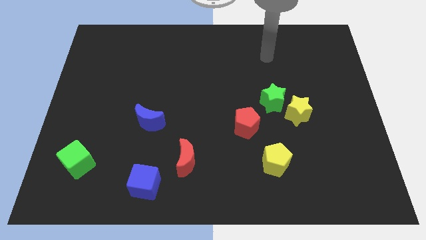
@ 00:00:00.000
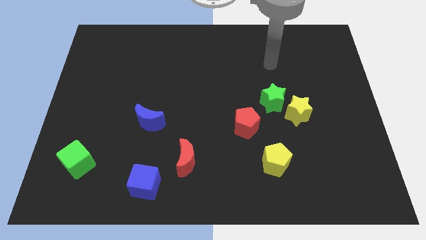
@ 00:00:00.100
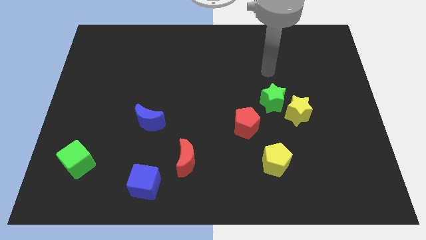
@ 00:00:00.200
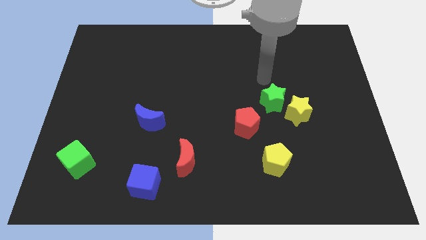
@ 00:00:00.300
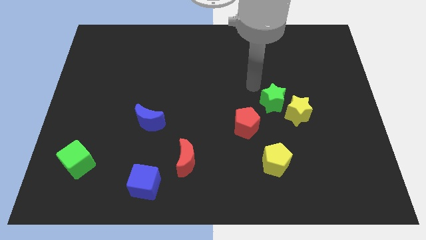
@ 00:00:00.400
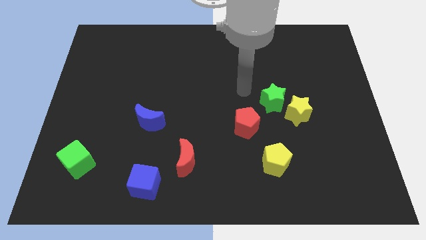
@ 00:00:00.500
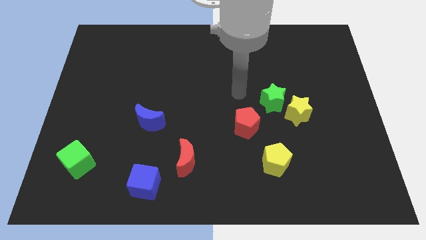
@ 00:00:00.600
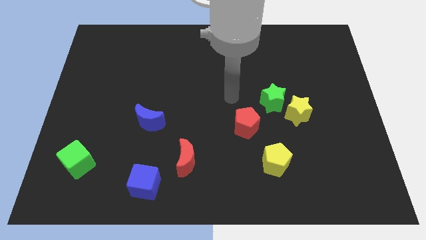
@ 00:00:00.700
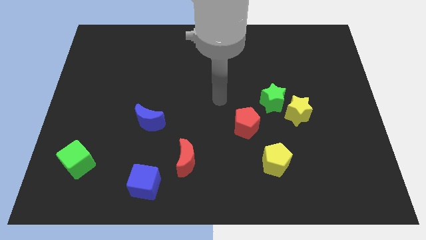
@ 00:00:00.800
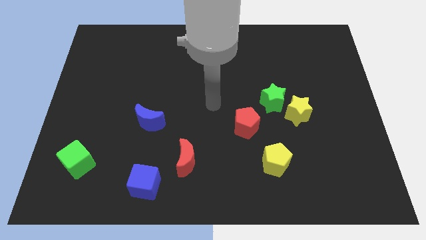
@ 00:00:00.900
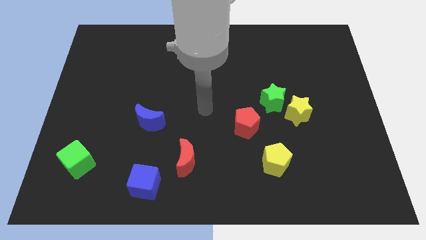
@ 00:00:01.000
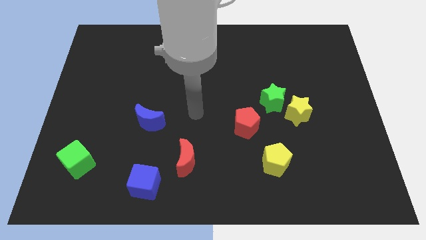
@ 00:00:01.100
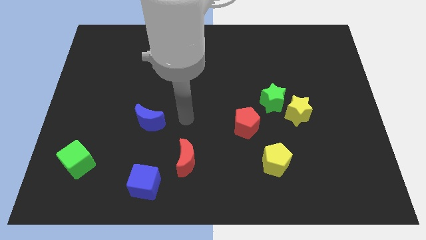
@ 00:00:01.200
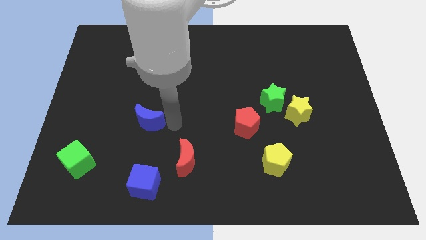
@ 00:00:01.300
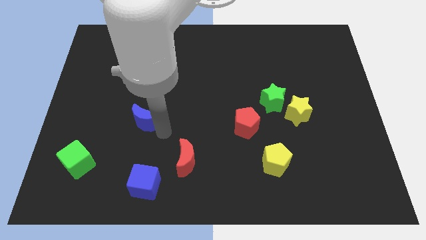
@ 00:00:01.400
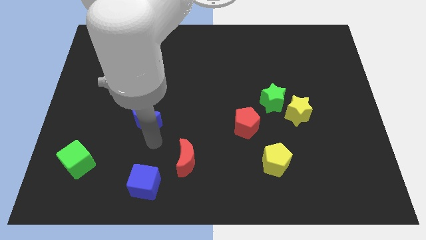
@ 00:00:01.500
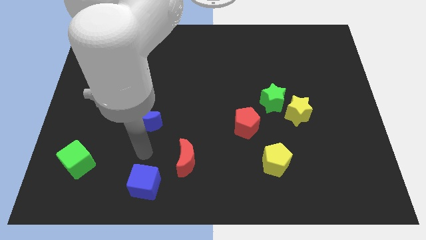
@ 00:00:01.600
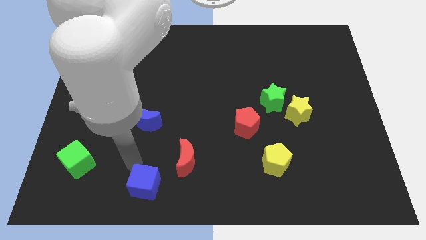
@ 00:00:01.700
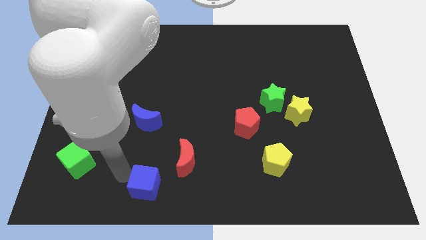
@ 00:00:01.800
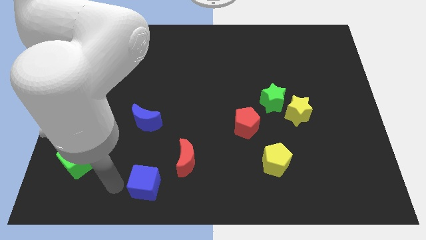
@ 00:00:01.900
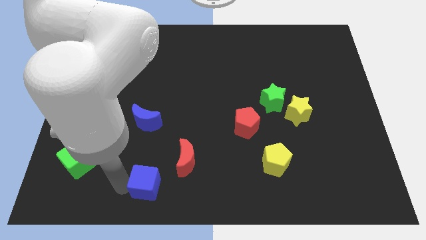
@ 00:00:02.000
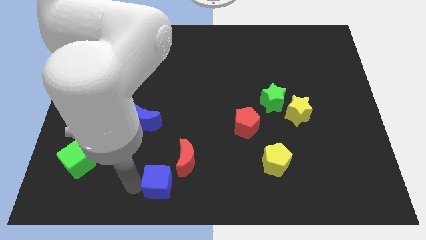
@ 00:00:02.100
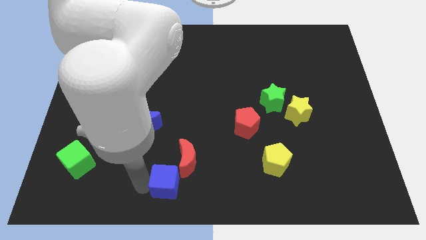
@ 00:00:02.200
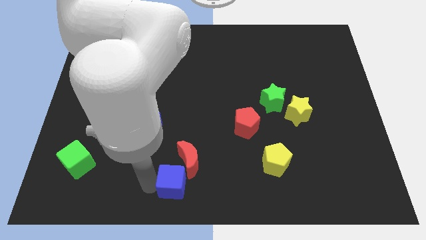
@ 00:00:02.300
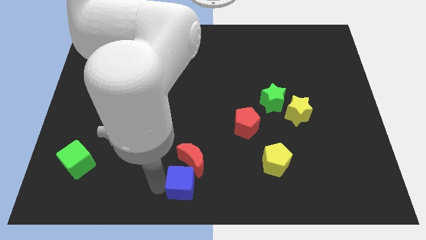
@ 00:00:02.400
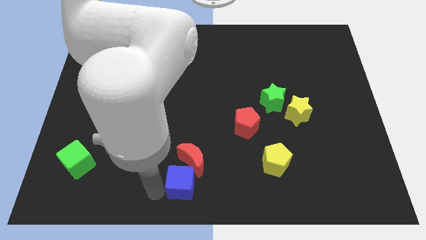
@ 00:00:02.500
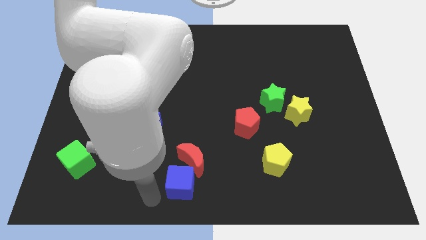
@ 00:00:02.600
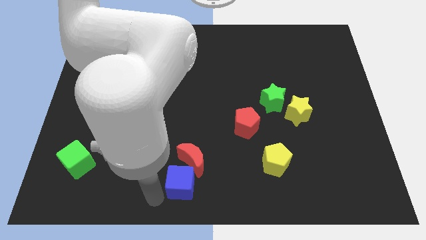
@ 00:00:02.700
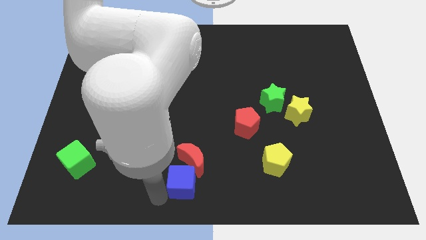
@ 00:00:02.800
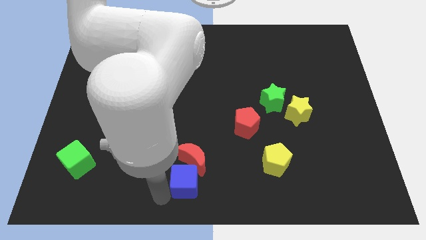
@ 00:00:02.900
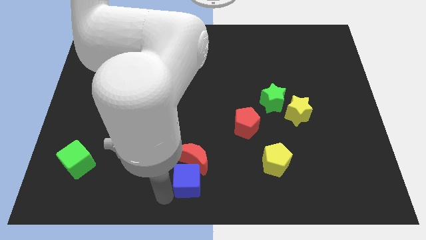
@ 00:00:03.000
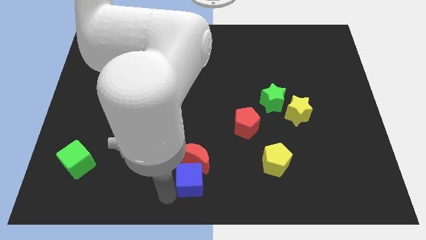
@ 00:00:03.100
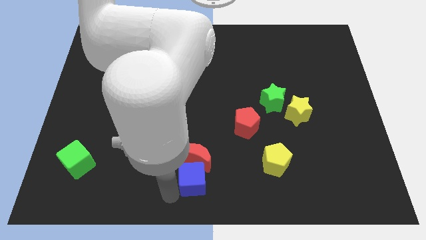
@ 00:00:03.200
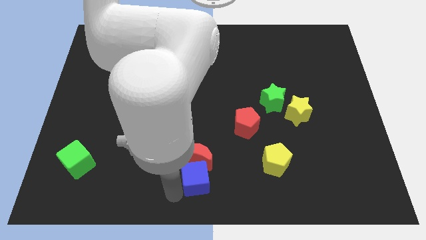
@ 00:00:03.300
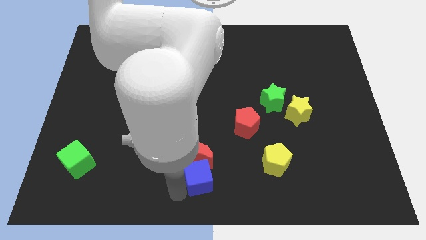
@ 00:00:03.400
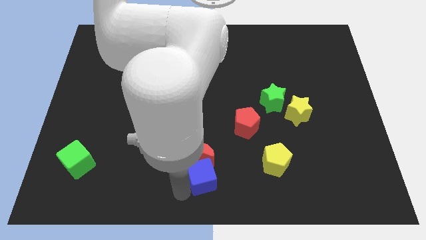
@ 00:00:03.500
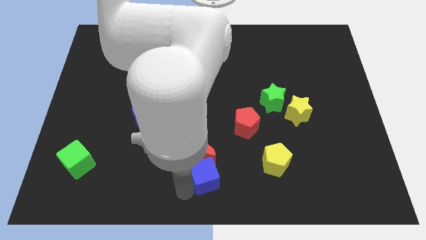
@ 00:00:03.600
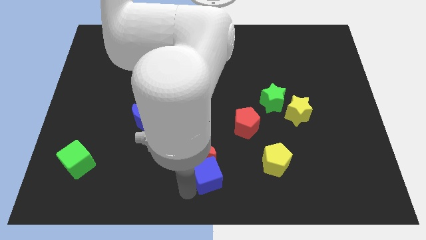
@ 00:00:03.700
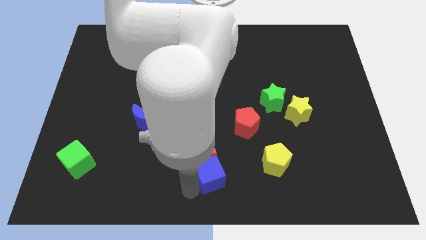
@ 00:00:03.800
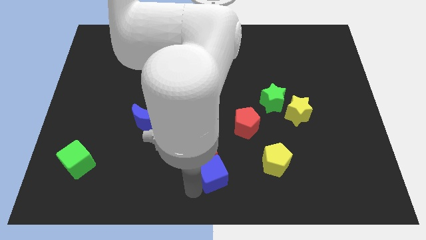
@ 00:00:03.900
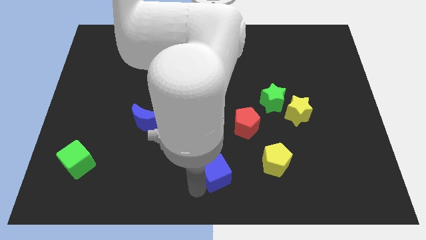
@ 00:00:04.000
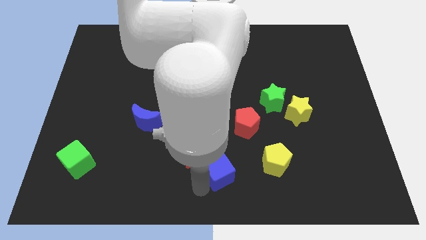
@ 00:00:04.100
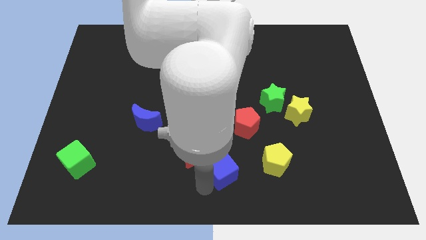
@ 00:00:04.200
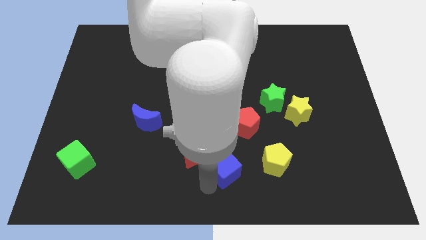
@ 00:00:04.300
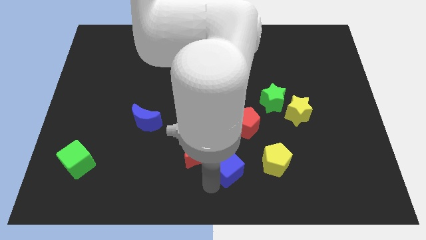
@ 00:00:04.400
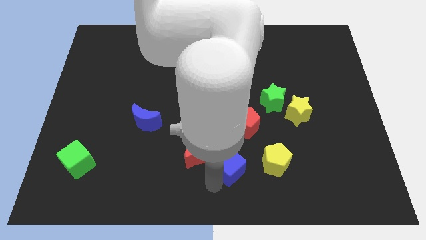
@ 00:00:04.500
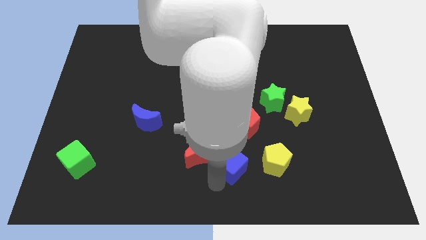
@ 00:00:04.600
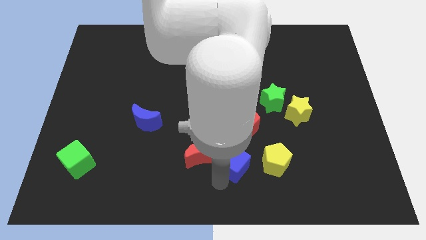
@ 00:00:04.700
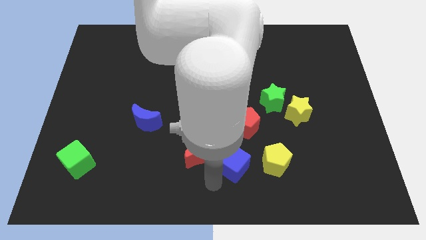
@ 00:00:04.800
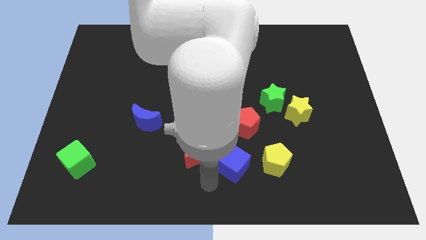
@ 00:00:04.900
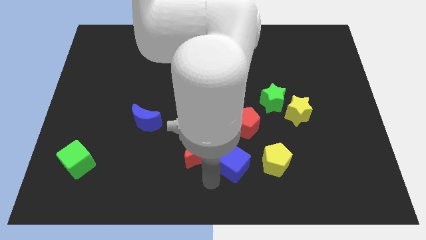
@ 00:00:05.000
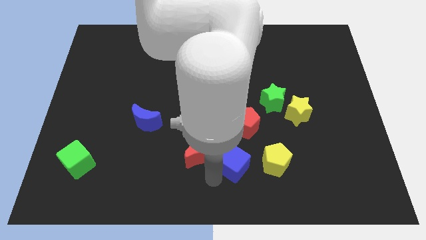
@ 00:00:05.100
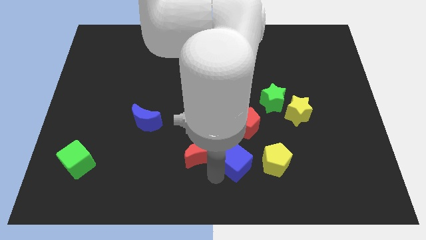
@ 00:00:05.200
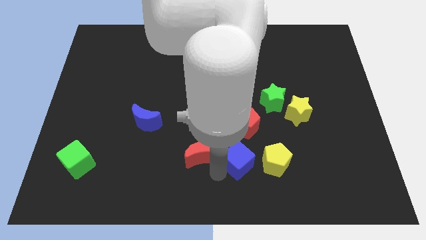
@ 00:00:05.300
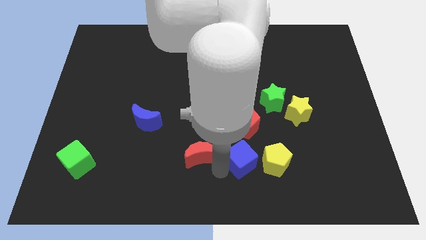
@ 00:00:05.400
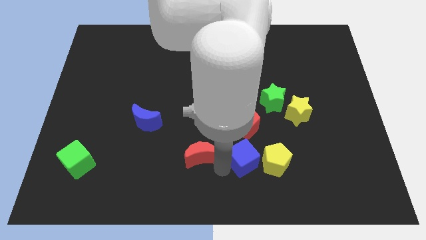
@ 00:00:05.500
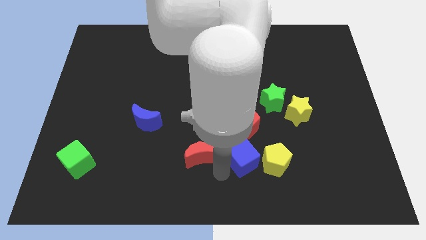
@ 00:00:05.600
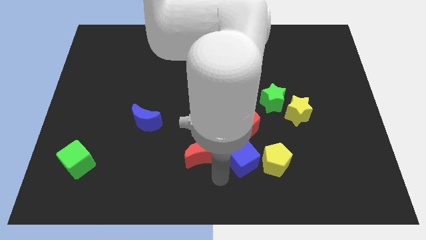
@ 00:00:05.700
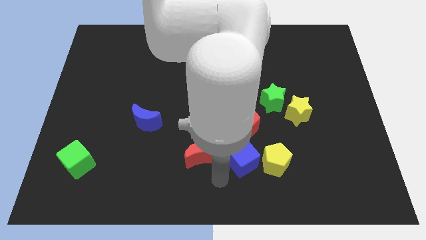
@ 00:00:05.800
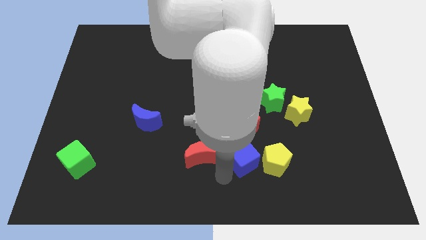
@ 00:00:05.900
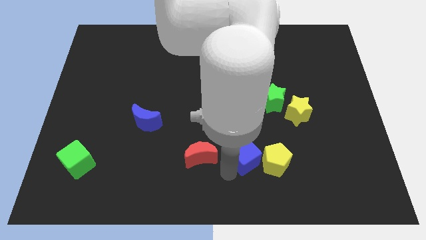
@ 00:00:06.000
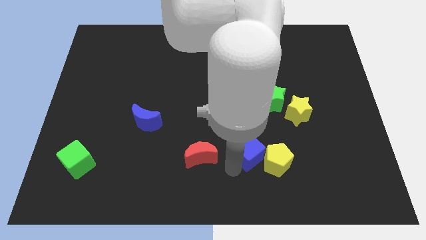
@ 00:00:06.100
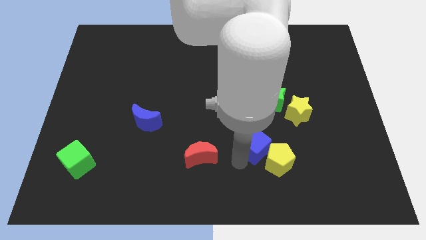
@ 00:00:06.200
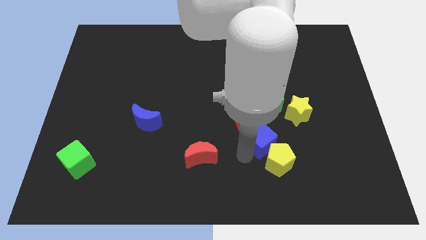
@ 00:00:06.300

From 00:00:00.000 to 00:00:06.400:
push the blue cube to the bottom side of the green star

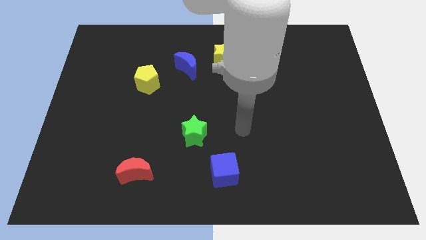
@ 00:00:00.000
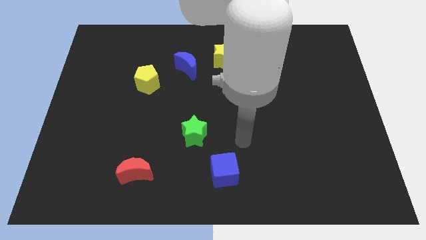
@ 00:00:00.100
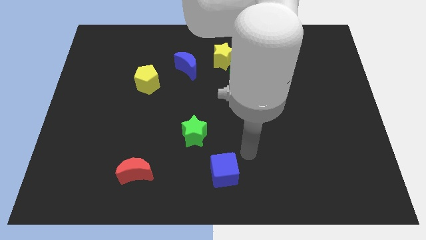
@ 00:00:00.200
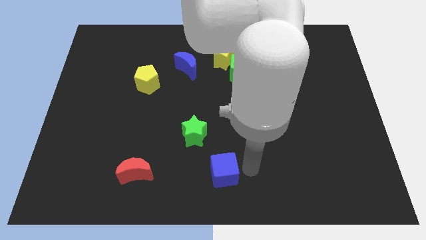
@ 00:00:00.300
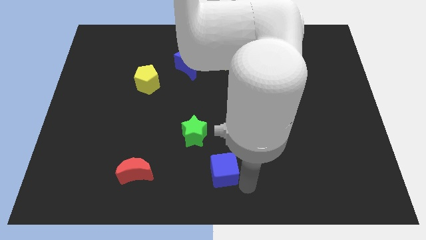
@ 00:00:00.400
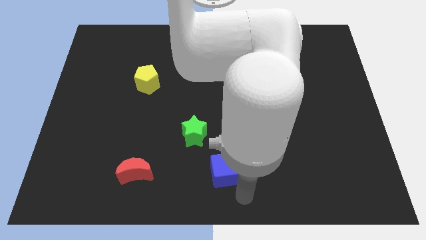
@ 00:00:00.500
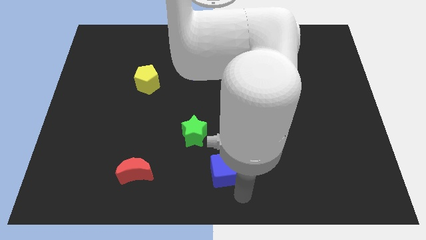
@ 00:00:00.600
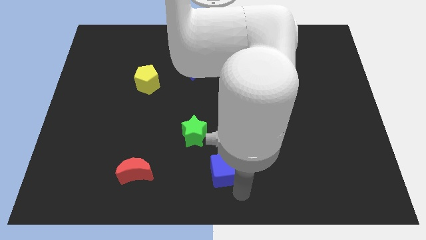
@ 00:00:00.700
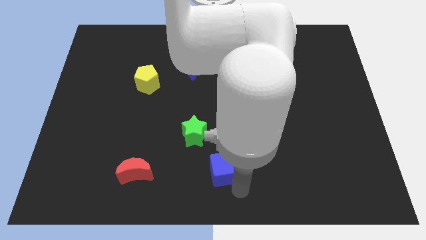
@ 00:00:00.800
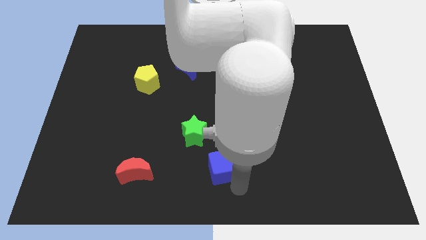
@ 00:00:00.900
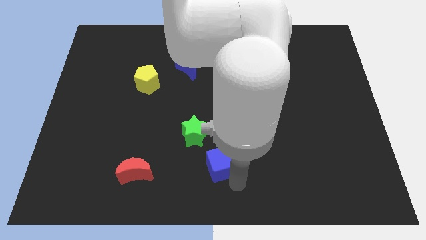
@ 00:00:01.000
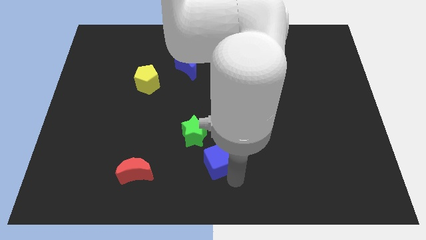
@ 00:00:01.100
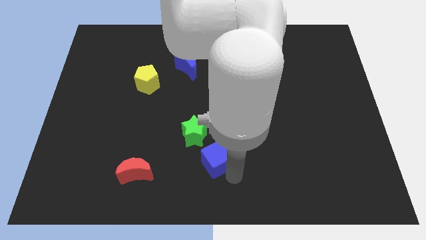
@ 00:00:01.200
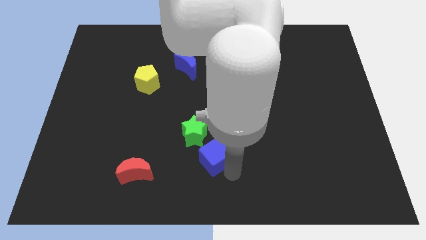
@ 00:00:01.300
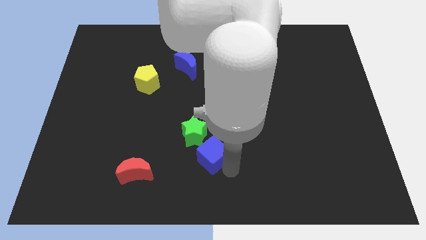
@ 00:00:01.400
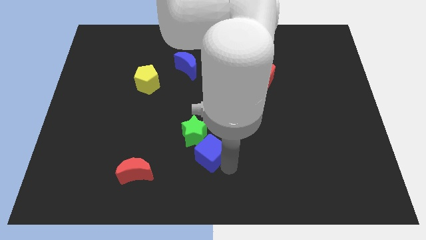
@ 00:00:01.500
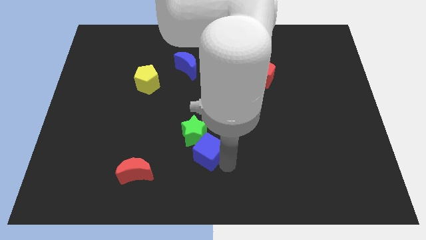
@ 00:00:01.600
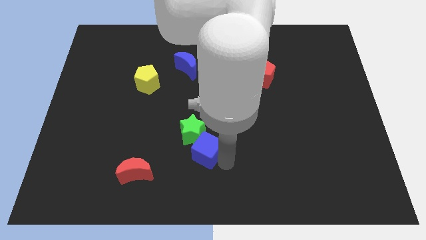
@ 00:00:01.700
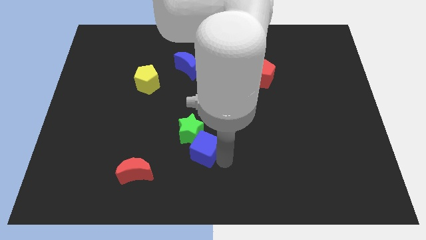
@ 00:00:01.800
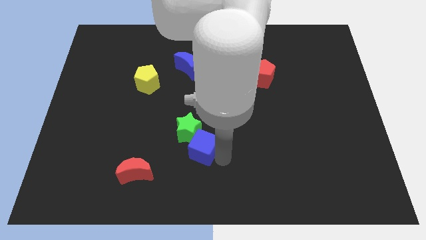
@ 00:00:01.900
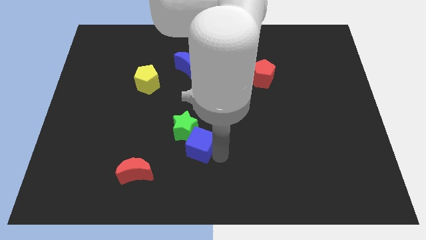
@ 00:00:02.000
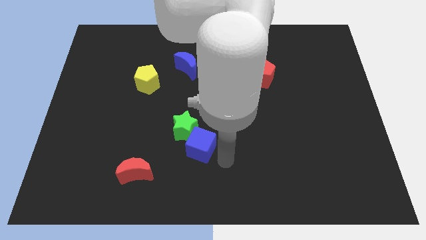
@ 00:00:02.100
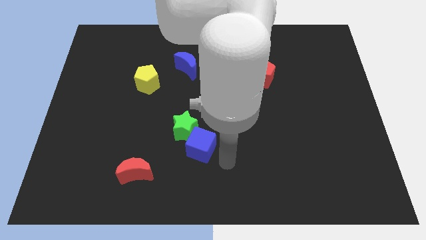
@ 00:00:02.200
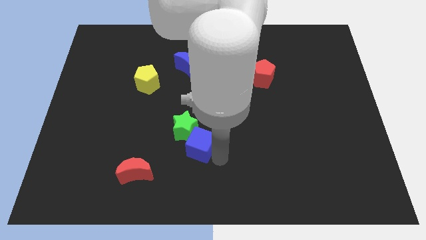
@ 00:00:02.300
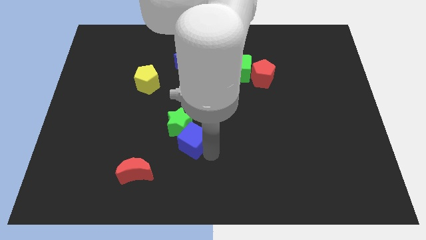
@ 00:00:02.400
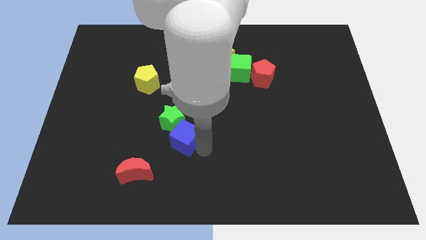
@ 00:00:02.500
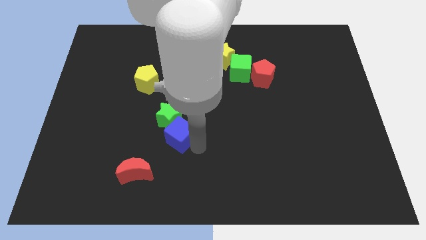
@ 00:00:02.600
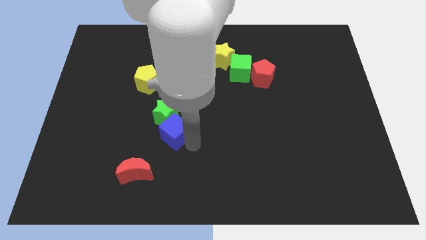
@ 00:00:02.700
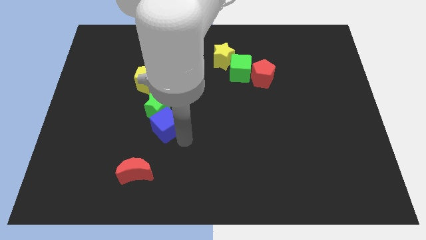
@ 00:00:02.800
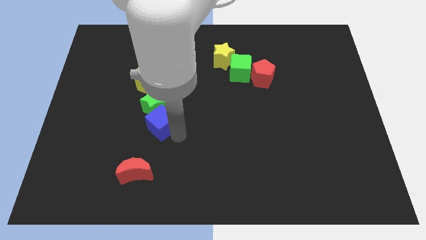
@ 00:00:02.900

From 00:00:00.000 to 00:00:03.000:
put the blue cube below the yellow pentagon
